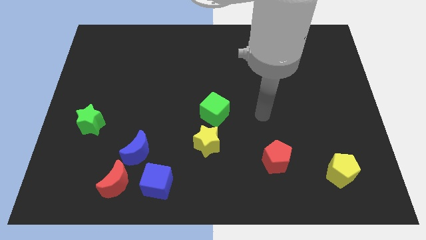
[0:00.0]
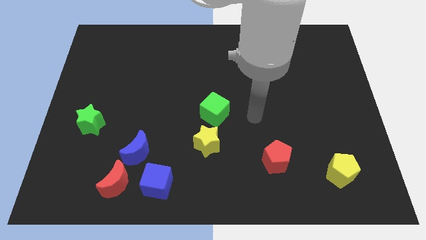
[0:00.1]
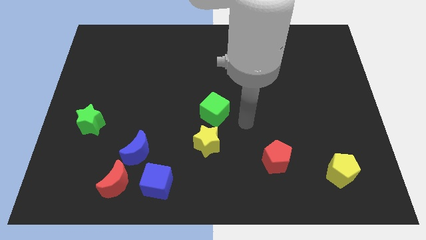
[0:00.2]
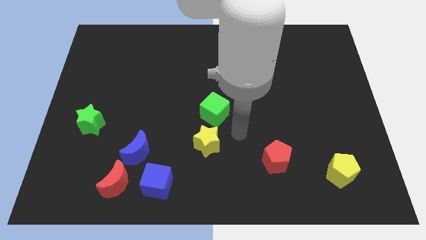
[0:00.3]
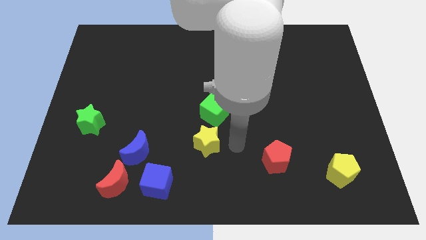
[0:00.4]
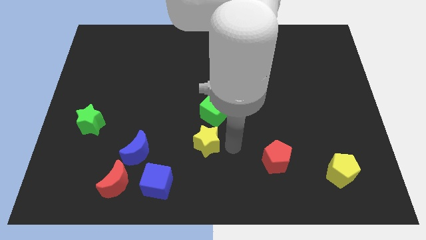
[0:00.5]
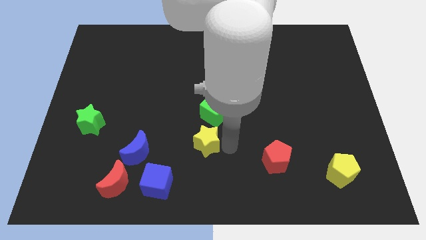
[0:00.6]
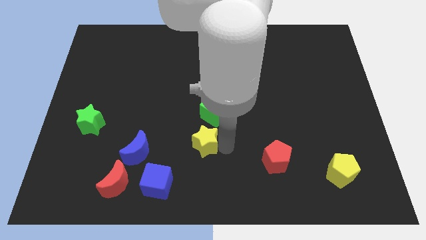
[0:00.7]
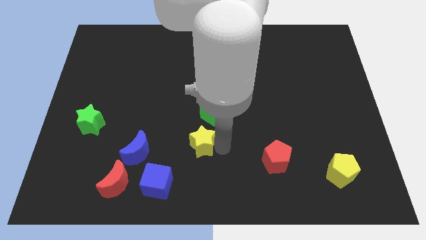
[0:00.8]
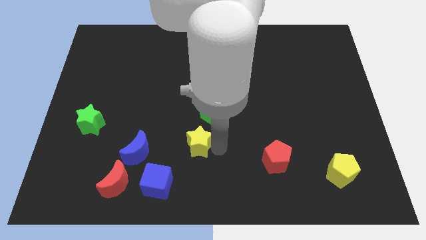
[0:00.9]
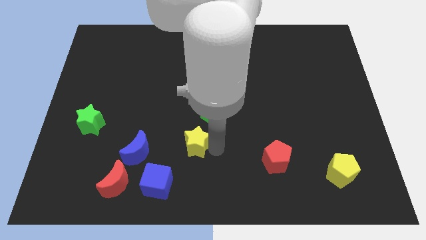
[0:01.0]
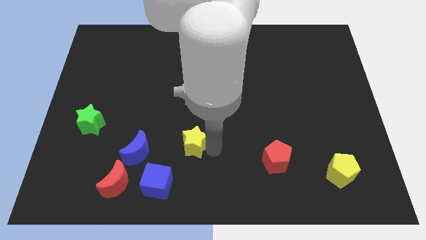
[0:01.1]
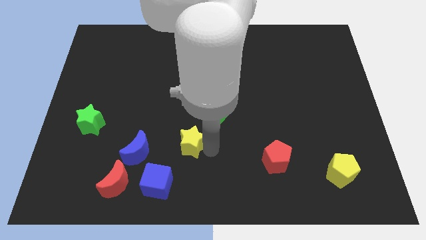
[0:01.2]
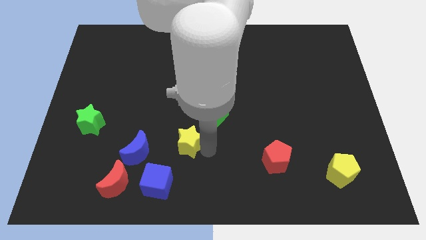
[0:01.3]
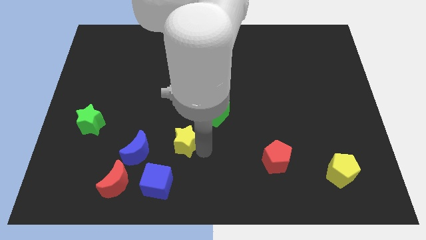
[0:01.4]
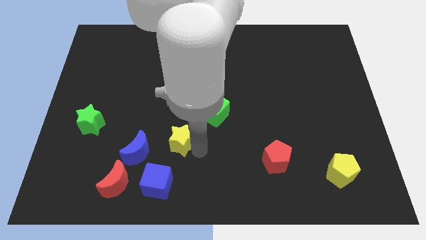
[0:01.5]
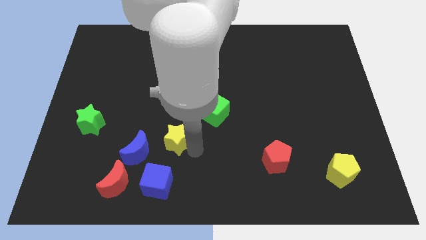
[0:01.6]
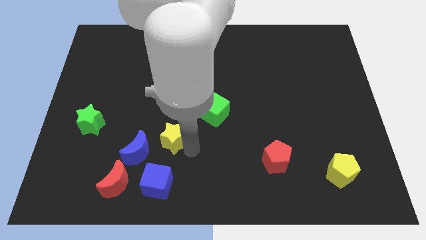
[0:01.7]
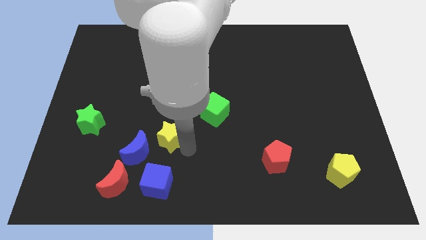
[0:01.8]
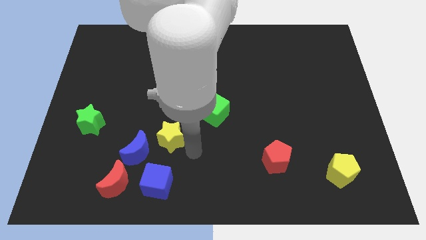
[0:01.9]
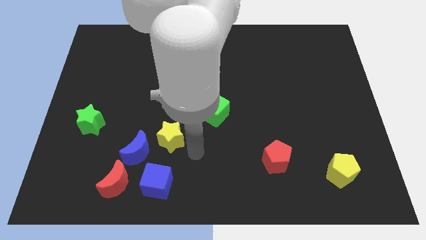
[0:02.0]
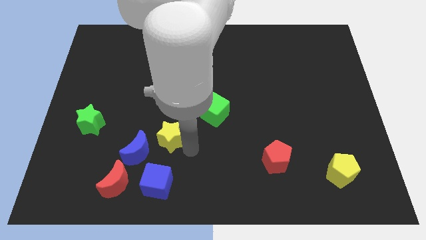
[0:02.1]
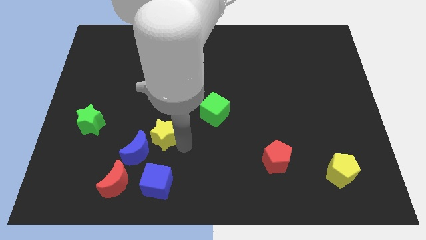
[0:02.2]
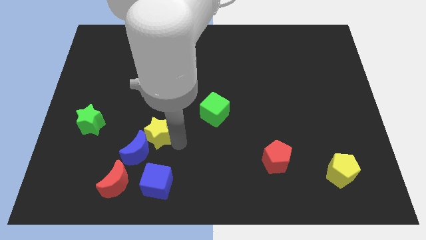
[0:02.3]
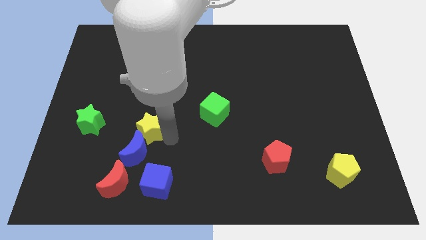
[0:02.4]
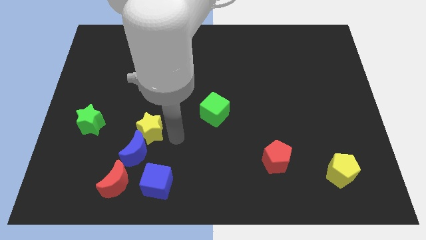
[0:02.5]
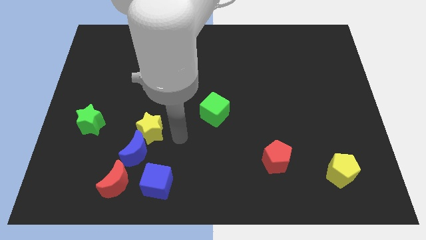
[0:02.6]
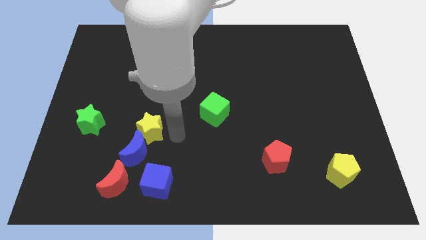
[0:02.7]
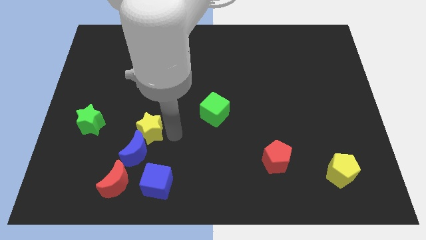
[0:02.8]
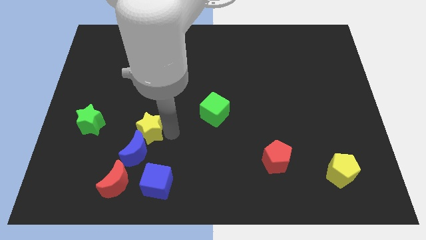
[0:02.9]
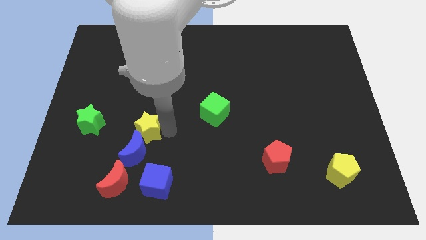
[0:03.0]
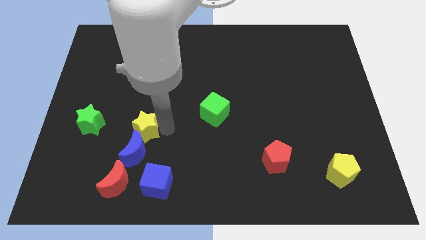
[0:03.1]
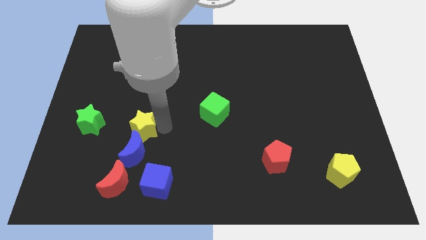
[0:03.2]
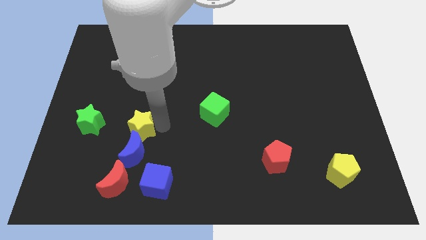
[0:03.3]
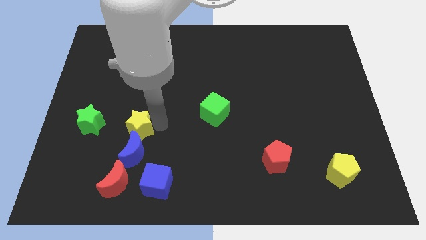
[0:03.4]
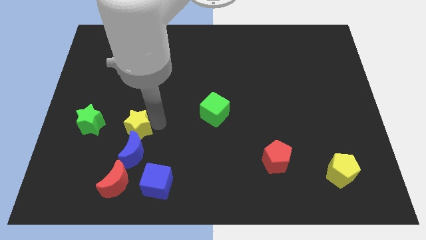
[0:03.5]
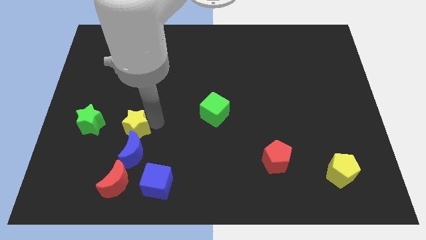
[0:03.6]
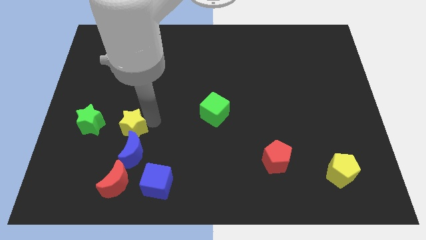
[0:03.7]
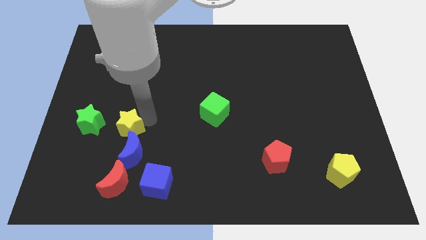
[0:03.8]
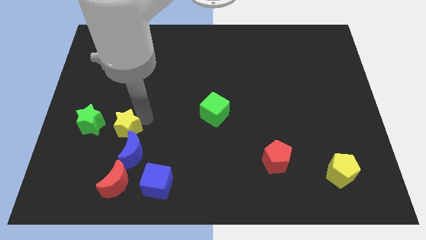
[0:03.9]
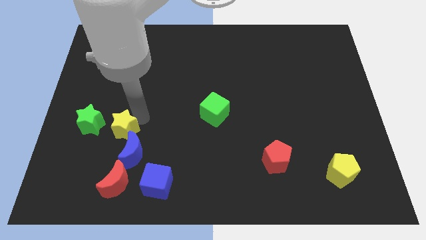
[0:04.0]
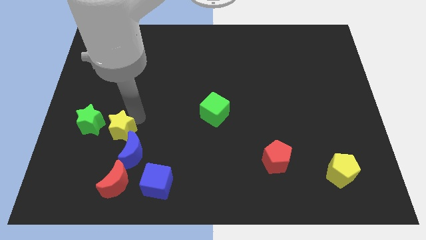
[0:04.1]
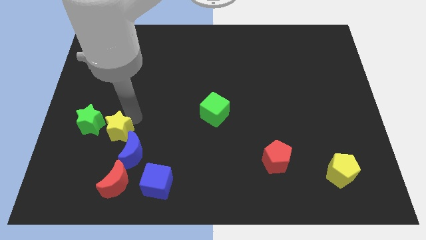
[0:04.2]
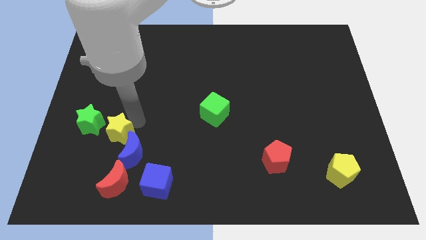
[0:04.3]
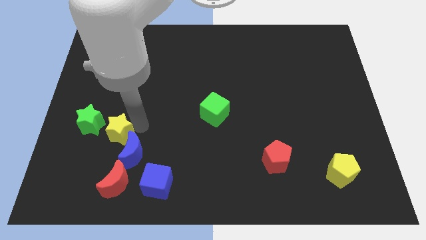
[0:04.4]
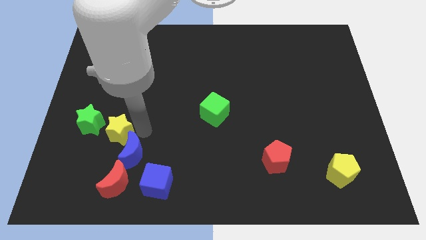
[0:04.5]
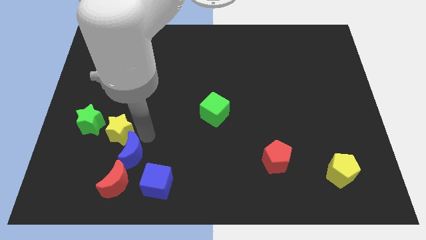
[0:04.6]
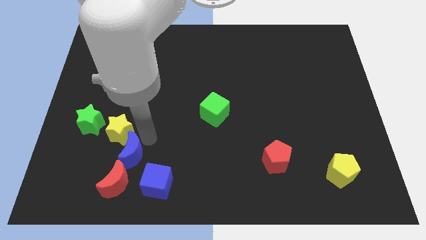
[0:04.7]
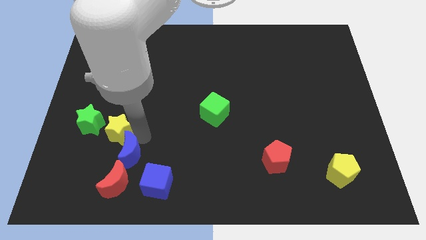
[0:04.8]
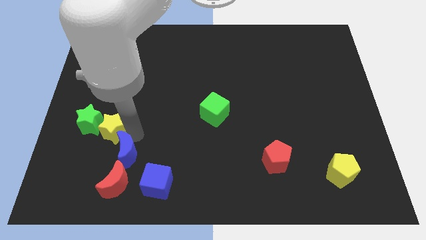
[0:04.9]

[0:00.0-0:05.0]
push the yellow star towards the green star

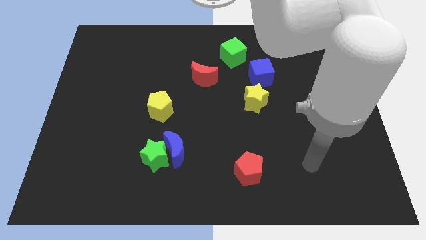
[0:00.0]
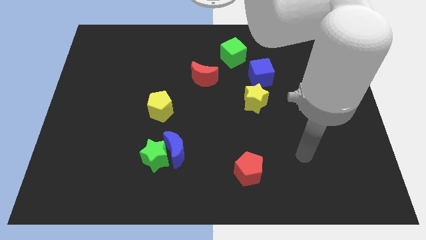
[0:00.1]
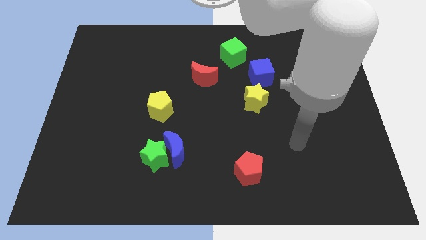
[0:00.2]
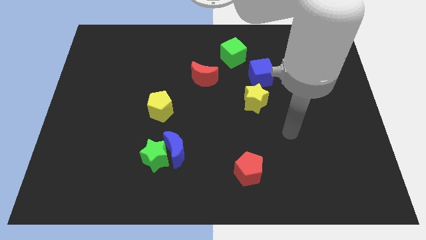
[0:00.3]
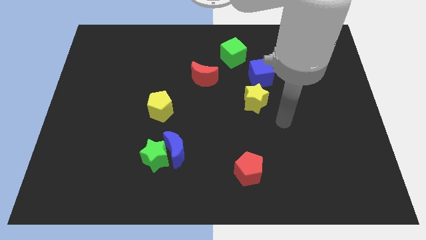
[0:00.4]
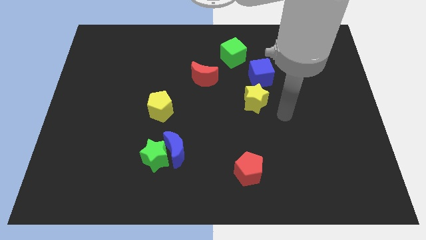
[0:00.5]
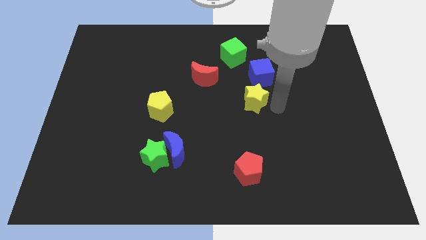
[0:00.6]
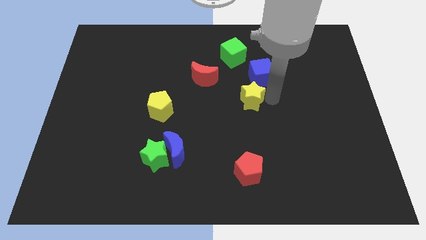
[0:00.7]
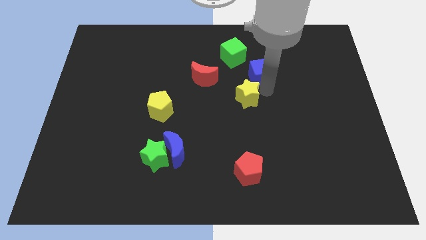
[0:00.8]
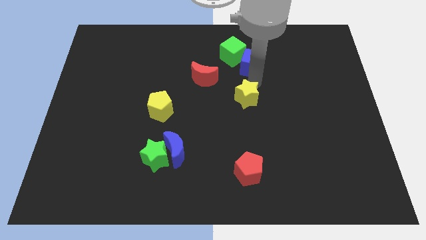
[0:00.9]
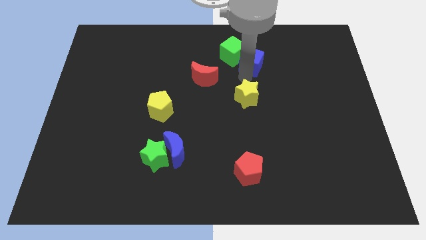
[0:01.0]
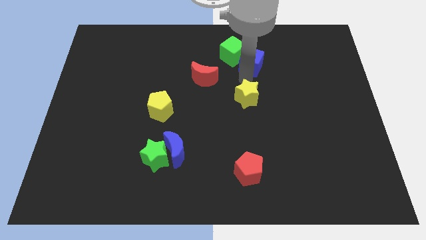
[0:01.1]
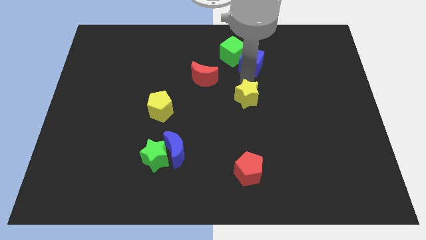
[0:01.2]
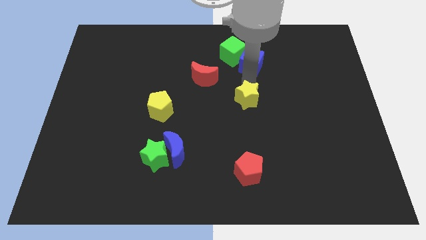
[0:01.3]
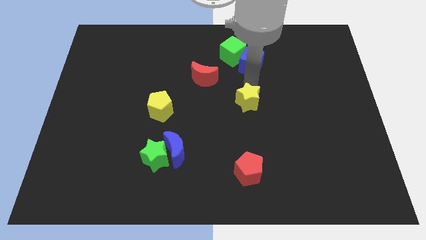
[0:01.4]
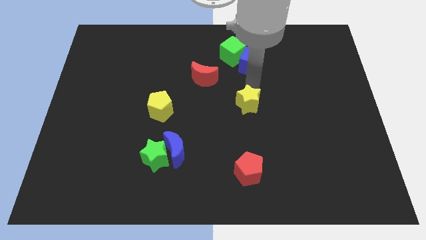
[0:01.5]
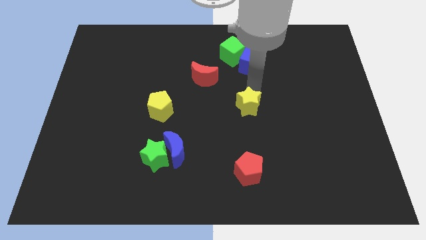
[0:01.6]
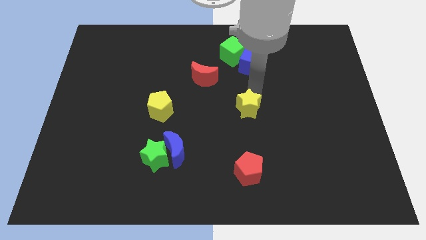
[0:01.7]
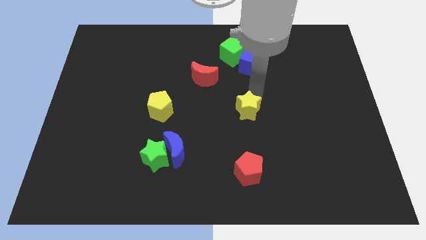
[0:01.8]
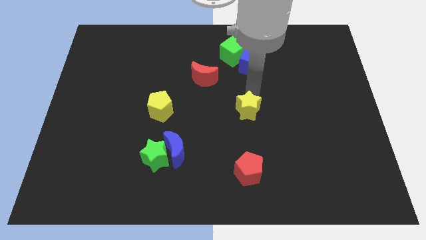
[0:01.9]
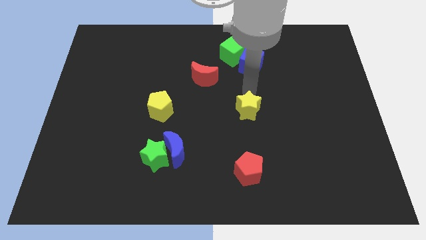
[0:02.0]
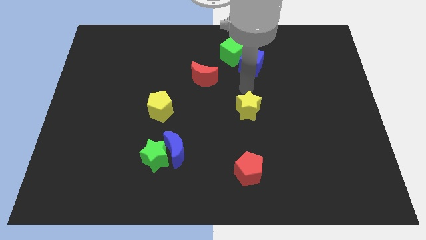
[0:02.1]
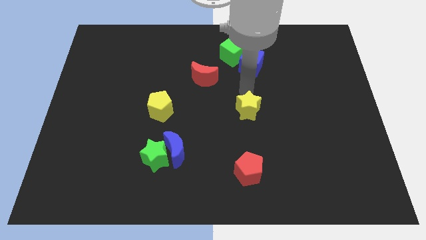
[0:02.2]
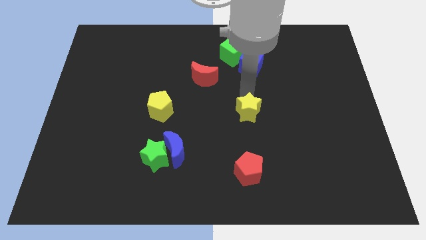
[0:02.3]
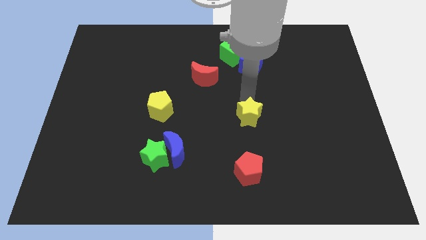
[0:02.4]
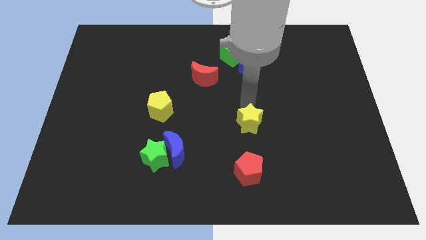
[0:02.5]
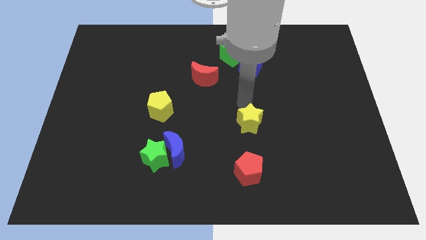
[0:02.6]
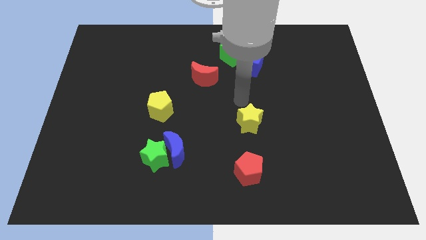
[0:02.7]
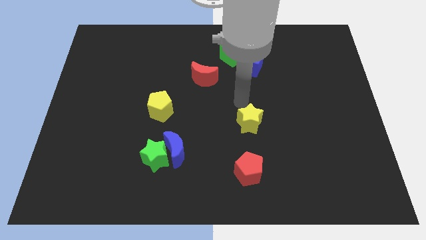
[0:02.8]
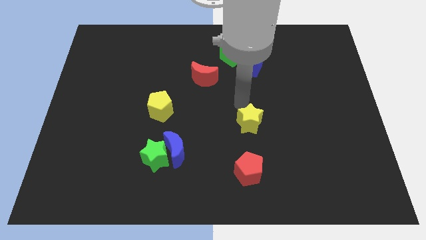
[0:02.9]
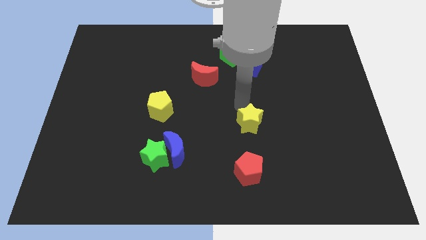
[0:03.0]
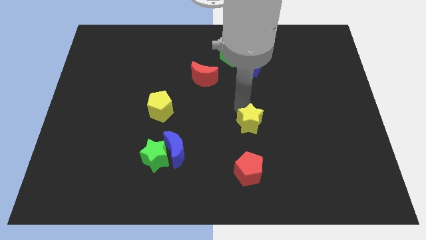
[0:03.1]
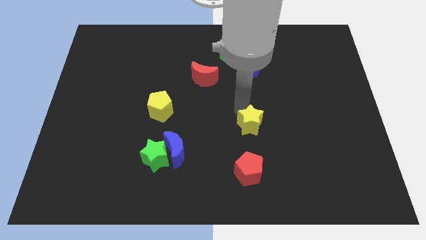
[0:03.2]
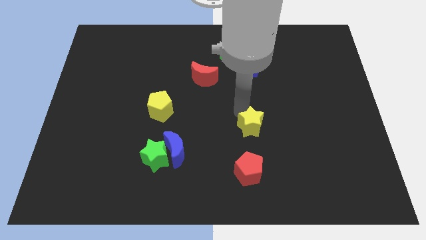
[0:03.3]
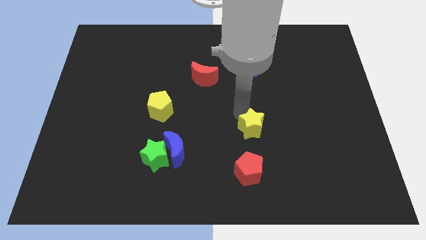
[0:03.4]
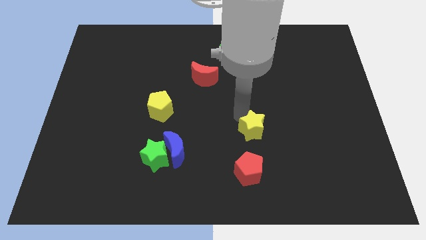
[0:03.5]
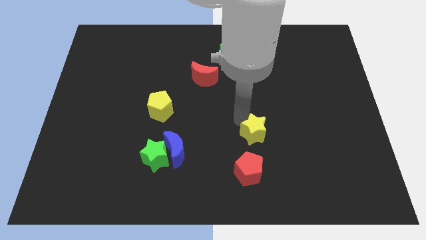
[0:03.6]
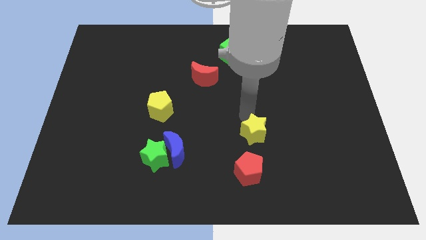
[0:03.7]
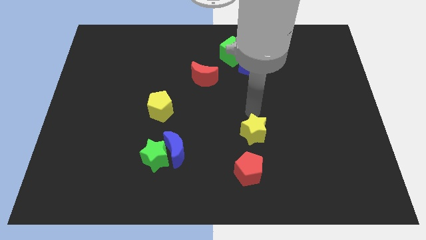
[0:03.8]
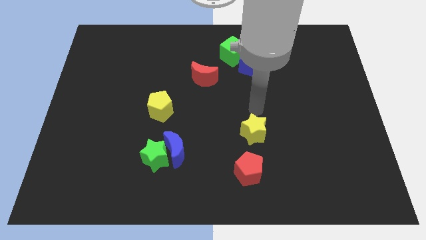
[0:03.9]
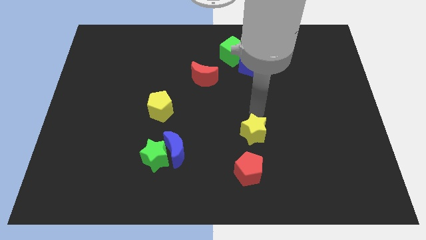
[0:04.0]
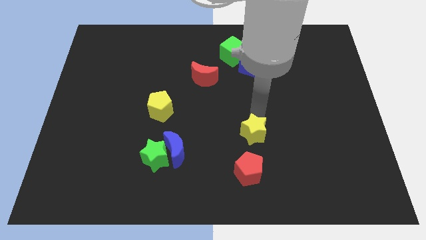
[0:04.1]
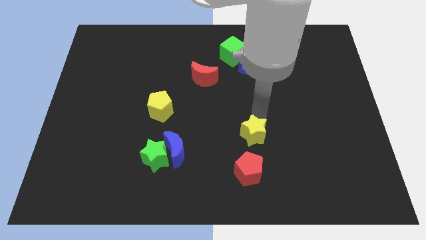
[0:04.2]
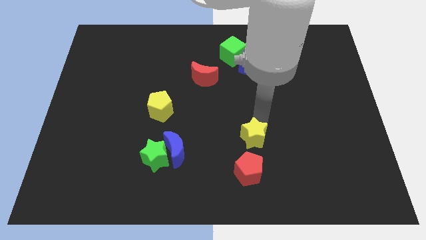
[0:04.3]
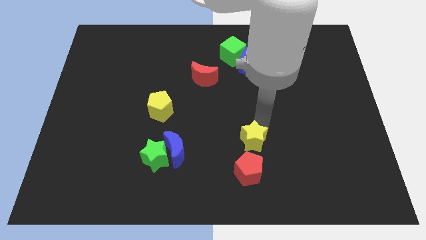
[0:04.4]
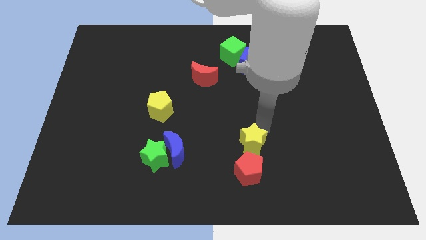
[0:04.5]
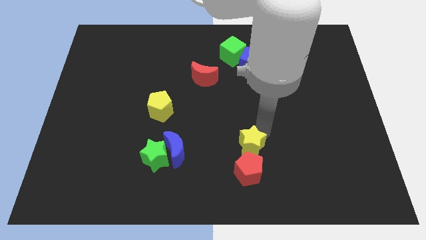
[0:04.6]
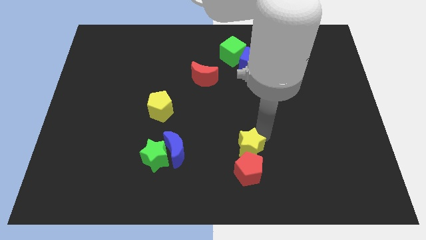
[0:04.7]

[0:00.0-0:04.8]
slide the yellow star to the red pentagon
